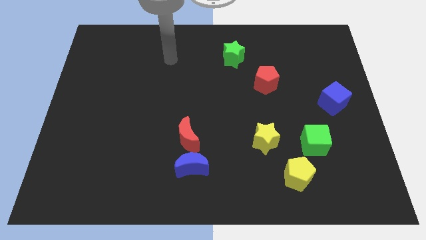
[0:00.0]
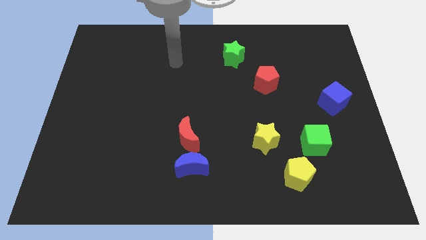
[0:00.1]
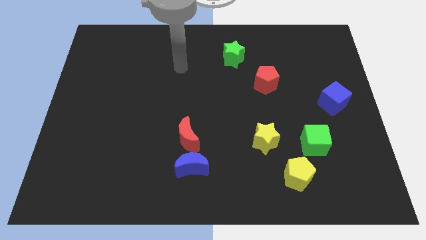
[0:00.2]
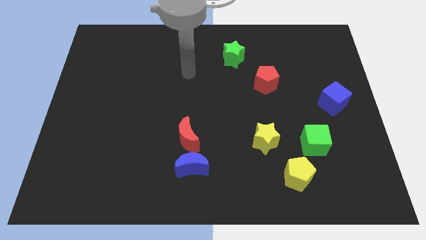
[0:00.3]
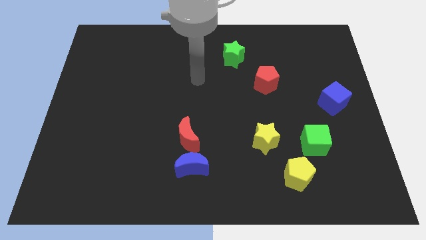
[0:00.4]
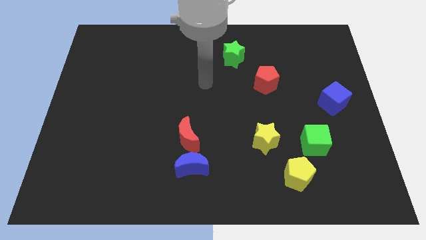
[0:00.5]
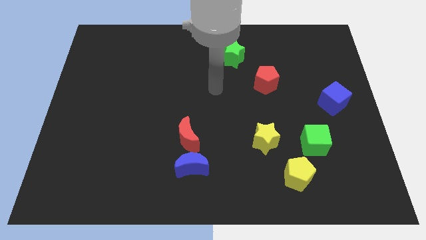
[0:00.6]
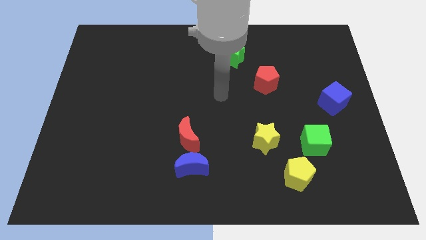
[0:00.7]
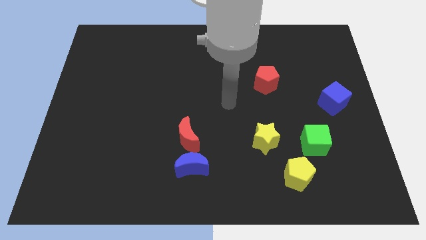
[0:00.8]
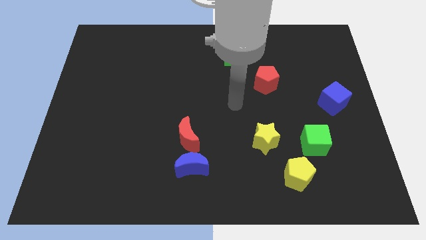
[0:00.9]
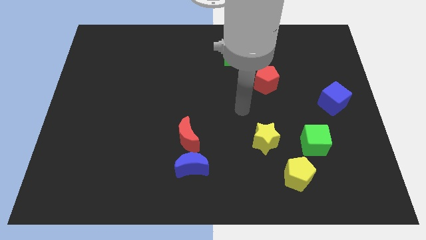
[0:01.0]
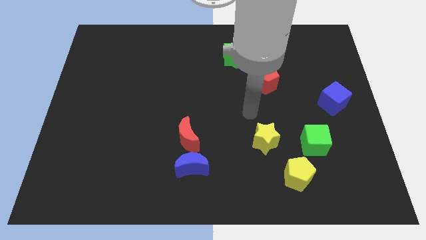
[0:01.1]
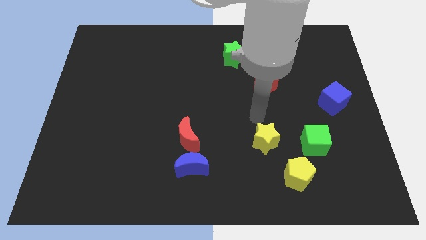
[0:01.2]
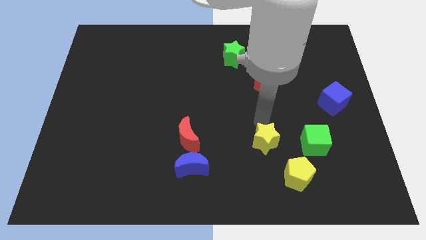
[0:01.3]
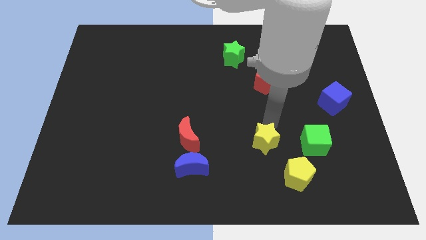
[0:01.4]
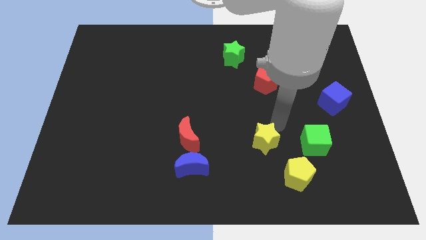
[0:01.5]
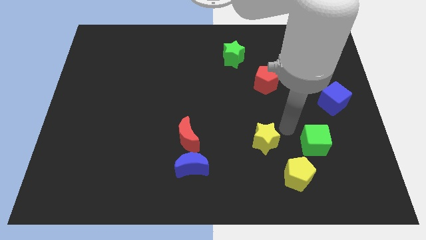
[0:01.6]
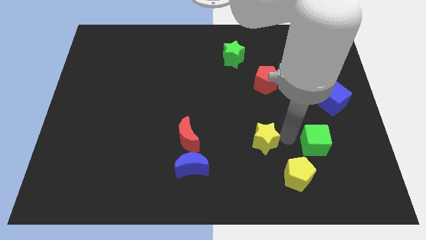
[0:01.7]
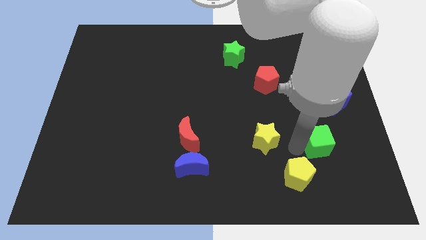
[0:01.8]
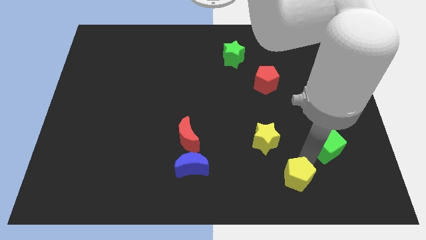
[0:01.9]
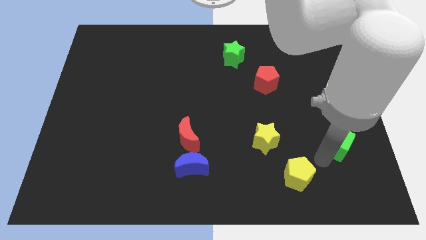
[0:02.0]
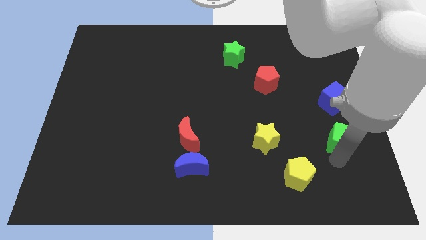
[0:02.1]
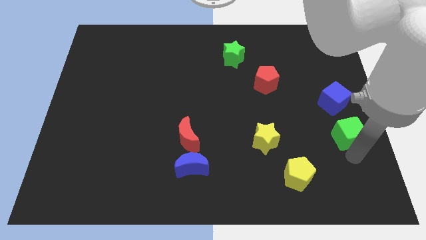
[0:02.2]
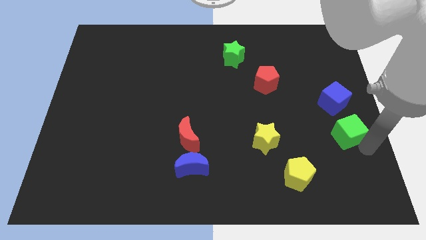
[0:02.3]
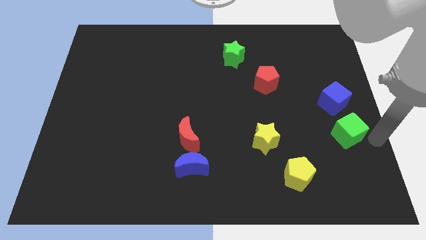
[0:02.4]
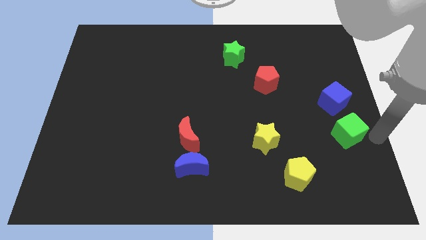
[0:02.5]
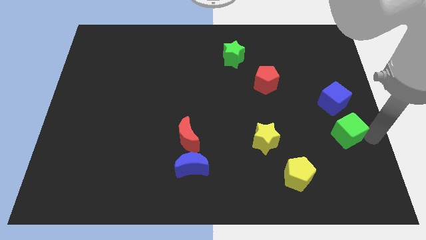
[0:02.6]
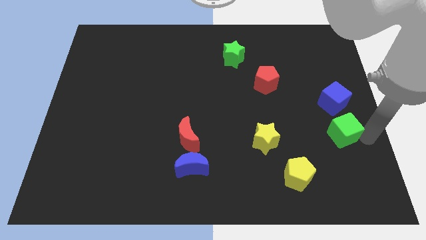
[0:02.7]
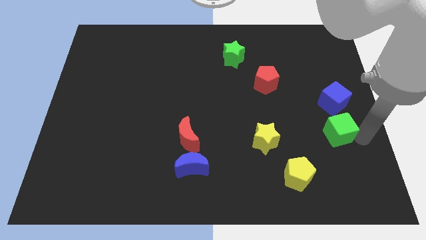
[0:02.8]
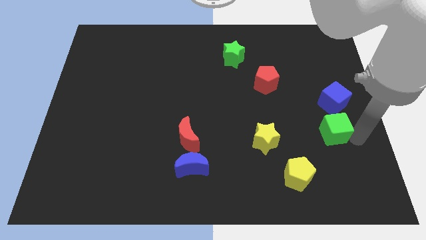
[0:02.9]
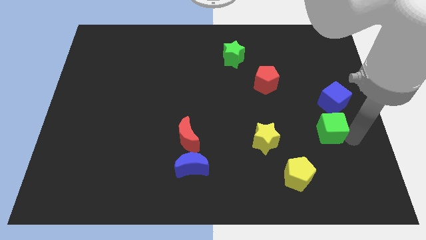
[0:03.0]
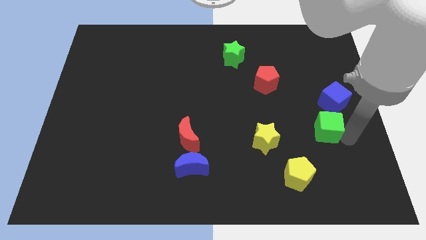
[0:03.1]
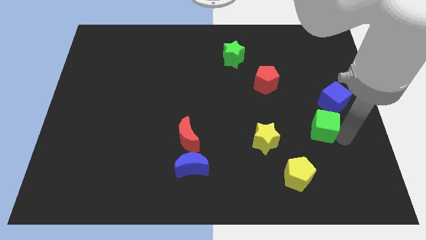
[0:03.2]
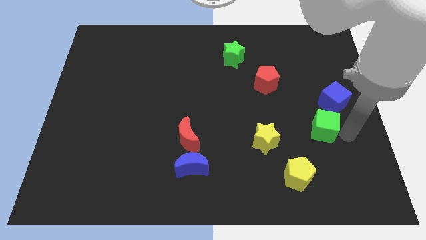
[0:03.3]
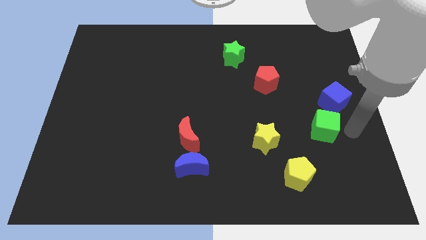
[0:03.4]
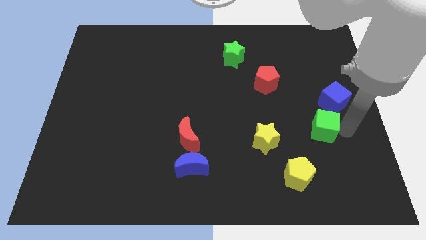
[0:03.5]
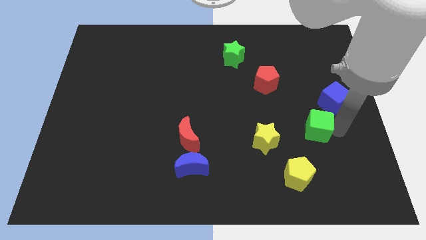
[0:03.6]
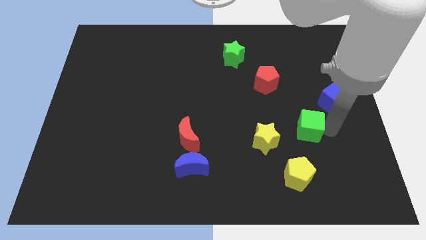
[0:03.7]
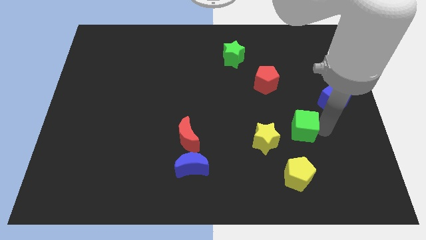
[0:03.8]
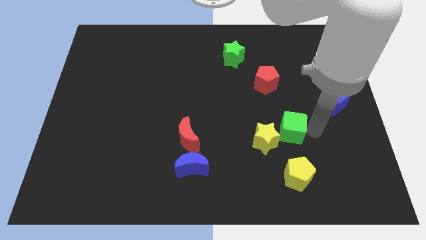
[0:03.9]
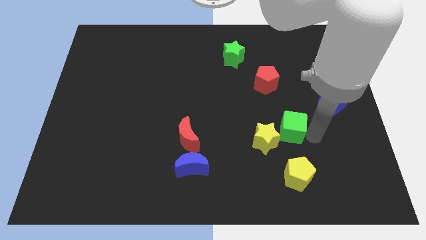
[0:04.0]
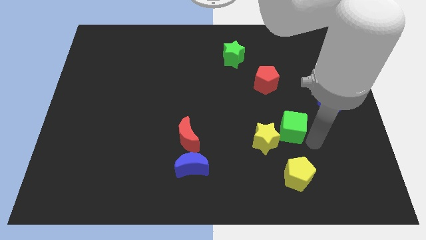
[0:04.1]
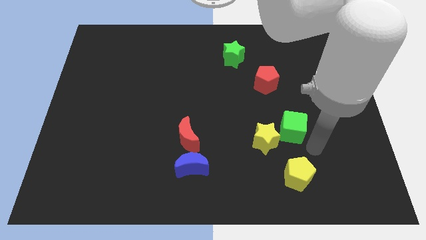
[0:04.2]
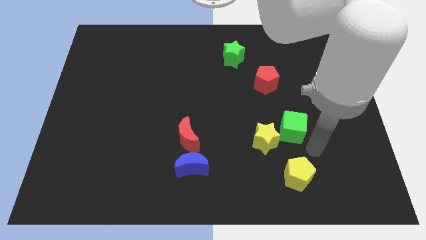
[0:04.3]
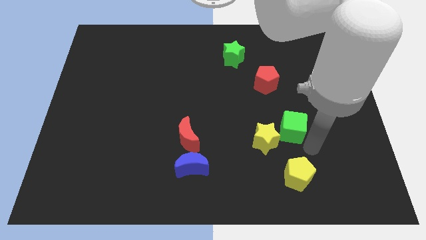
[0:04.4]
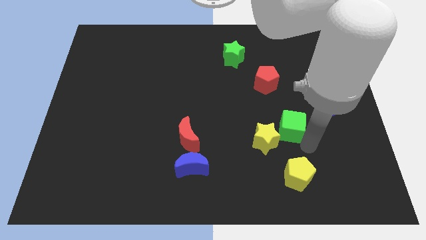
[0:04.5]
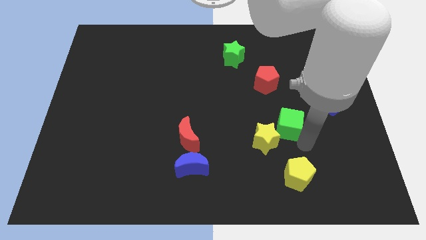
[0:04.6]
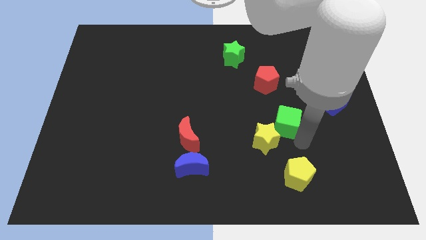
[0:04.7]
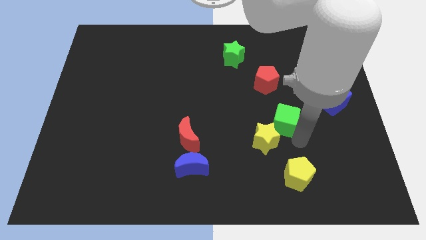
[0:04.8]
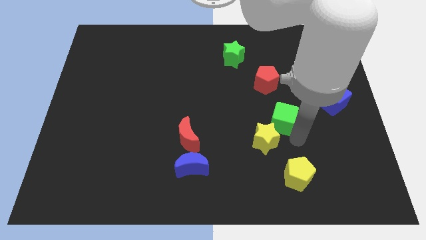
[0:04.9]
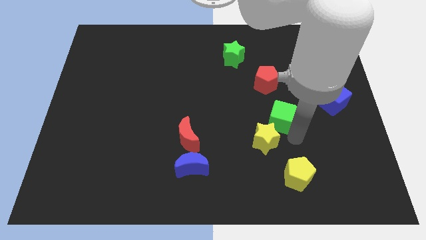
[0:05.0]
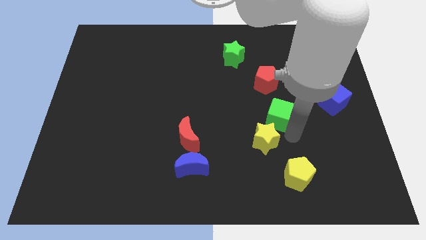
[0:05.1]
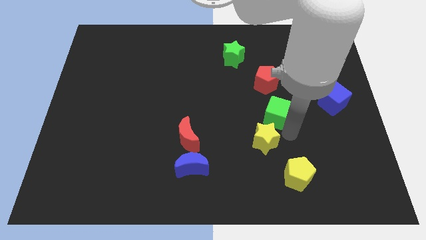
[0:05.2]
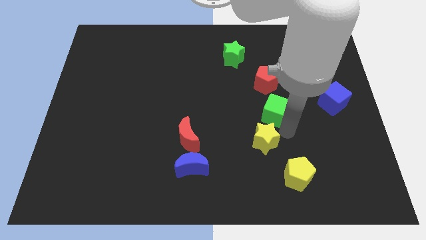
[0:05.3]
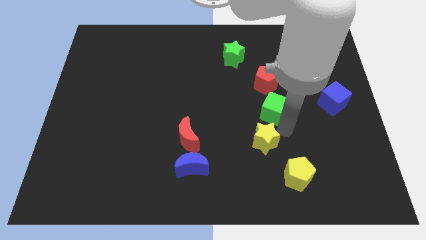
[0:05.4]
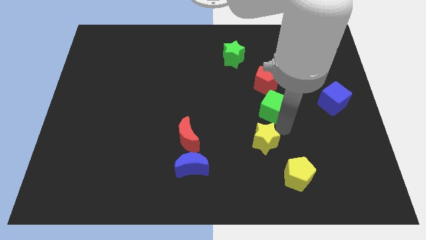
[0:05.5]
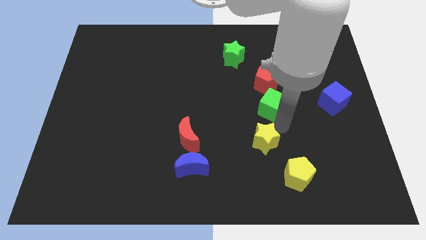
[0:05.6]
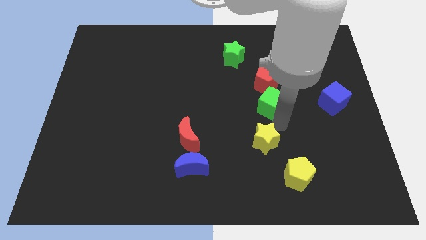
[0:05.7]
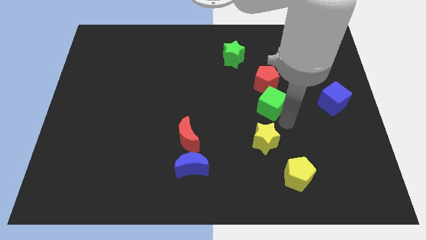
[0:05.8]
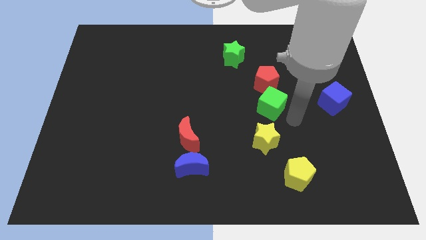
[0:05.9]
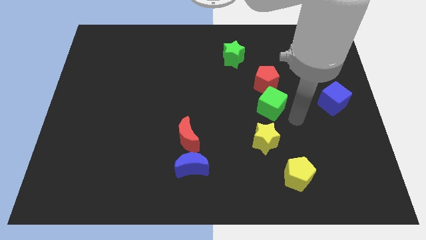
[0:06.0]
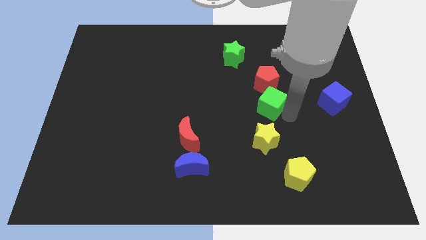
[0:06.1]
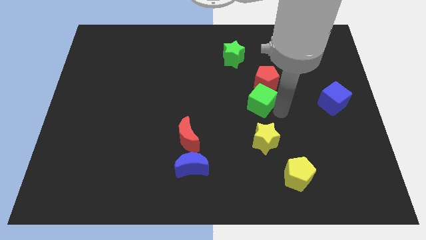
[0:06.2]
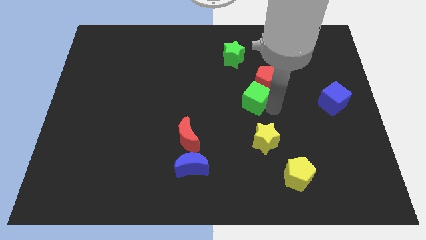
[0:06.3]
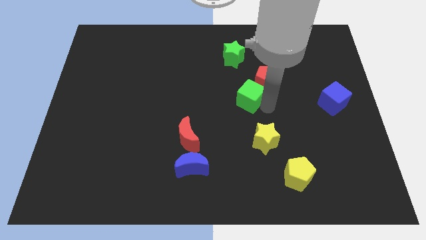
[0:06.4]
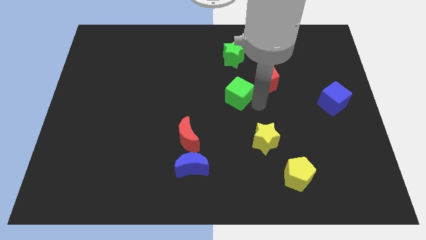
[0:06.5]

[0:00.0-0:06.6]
slide the green cube upwards and to the left diagonally

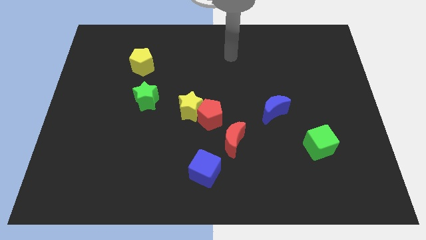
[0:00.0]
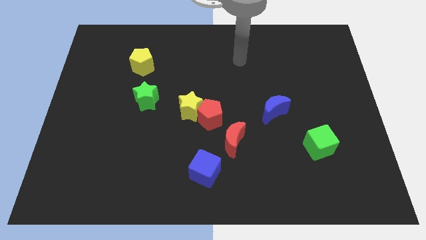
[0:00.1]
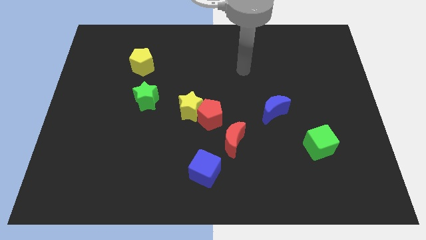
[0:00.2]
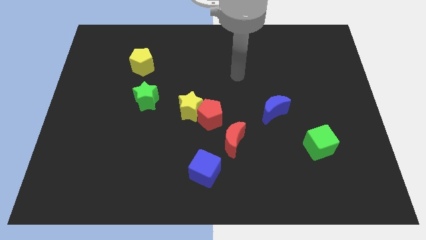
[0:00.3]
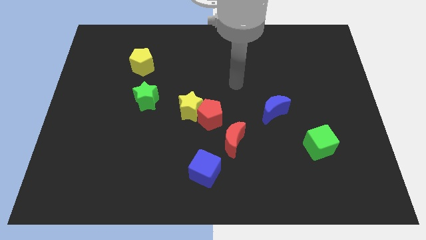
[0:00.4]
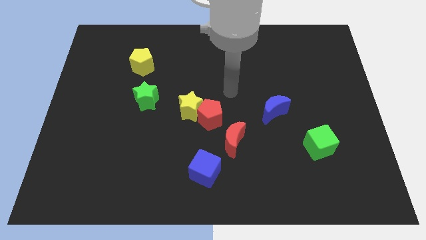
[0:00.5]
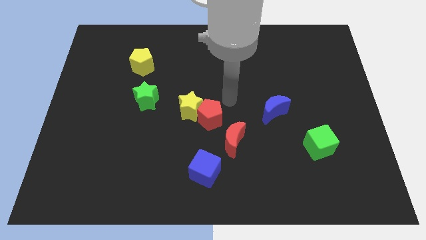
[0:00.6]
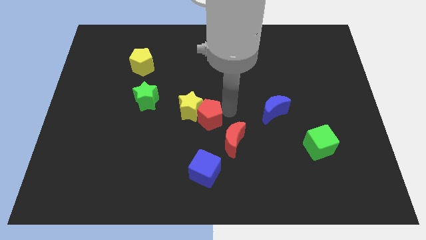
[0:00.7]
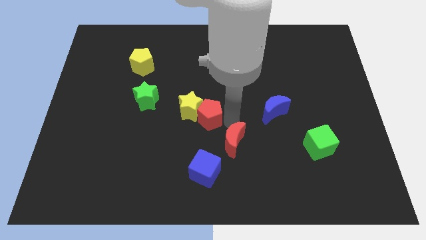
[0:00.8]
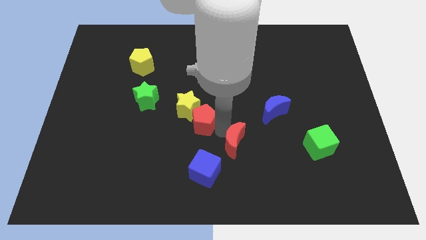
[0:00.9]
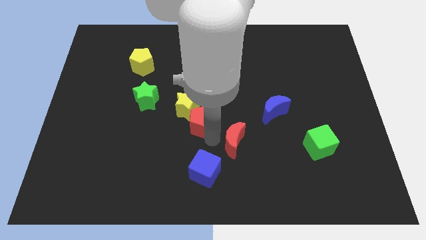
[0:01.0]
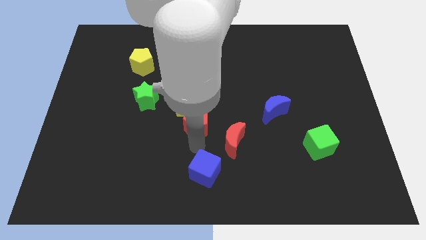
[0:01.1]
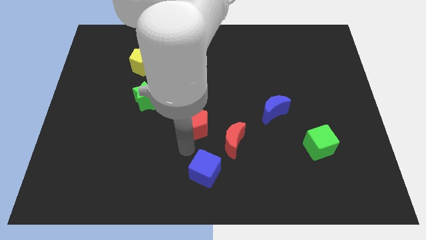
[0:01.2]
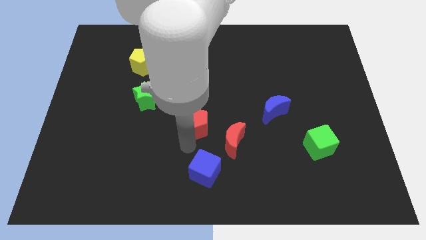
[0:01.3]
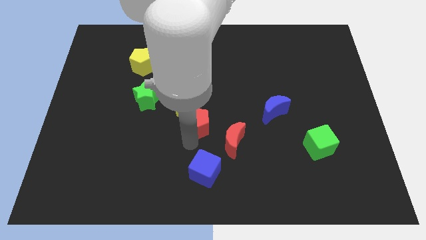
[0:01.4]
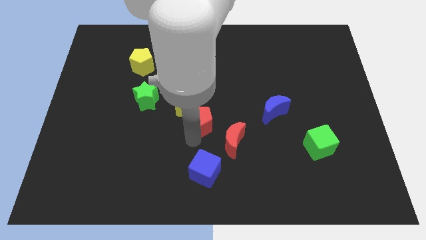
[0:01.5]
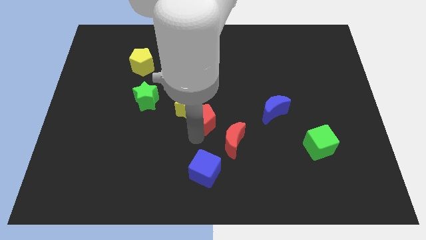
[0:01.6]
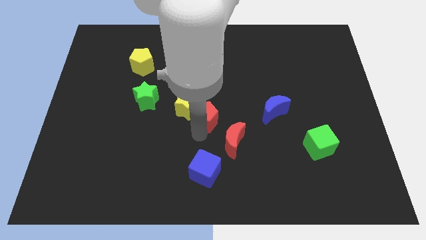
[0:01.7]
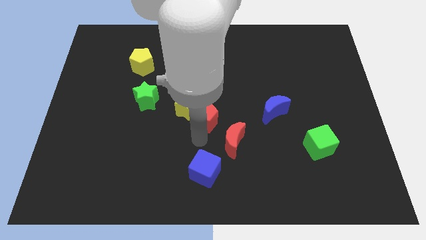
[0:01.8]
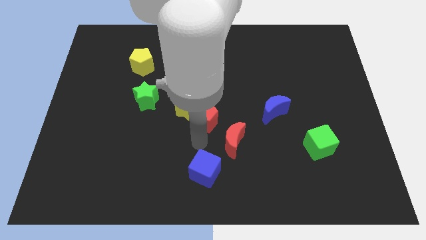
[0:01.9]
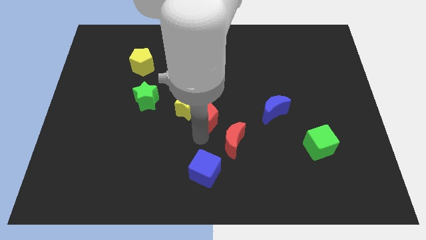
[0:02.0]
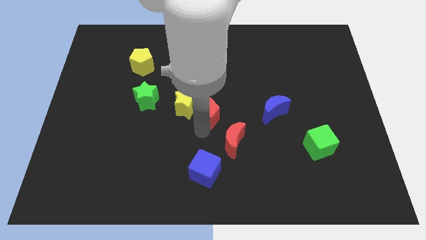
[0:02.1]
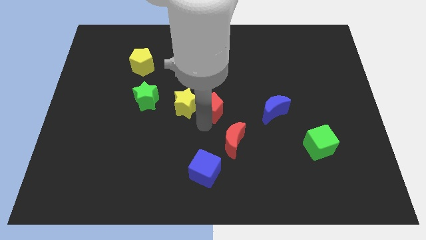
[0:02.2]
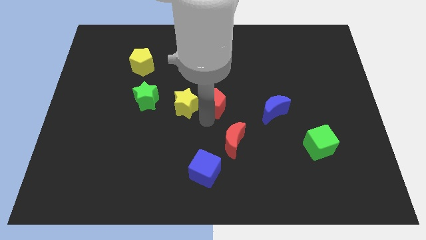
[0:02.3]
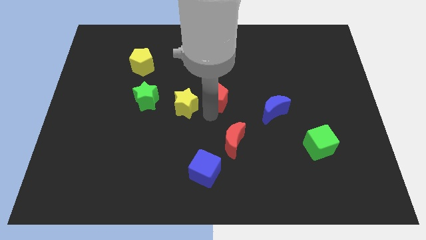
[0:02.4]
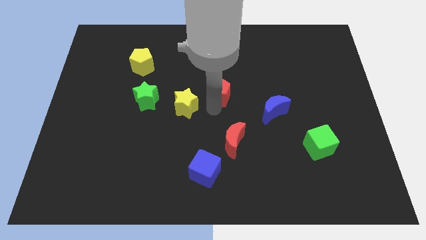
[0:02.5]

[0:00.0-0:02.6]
push the red pentagon up slightly
